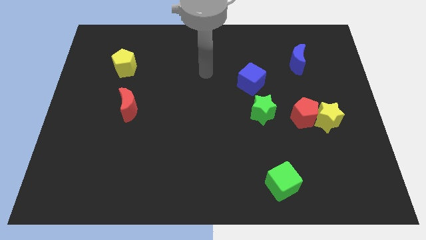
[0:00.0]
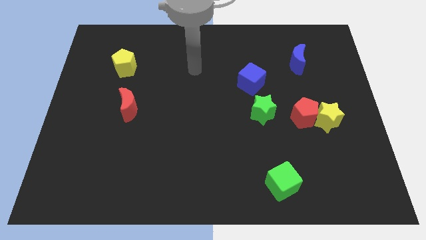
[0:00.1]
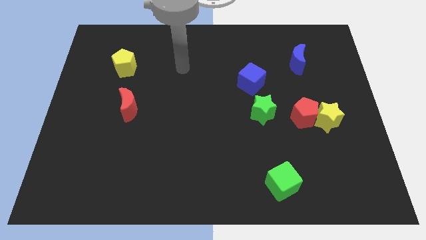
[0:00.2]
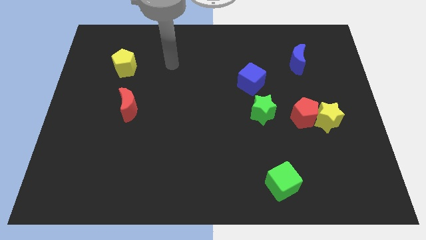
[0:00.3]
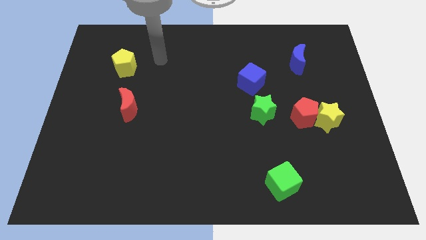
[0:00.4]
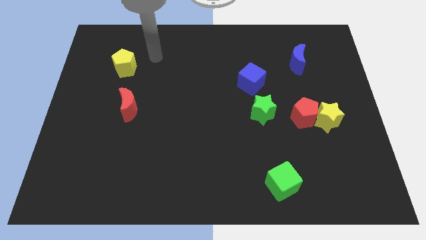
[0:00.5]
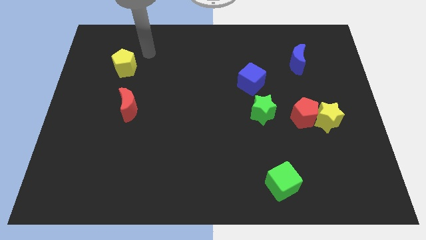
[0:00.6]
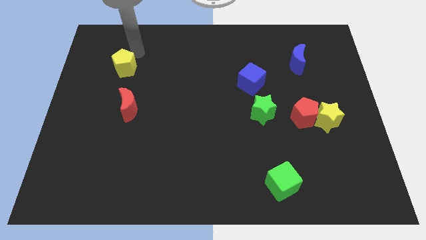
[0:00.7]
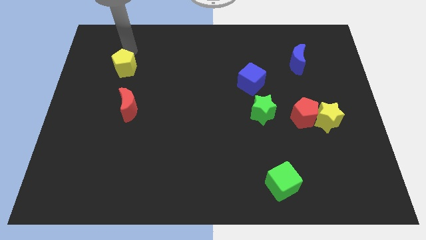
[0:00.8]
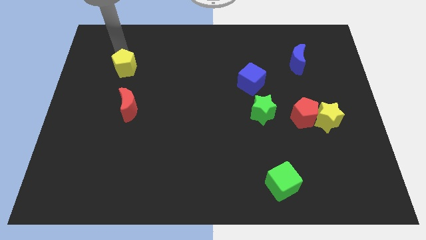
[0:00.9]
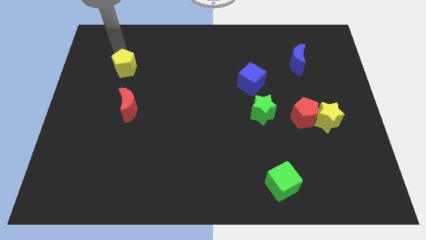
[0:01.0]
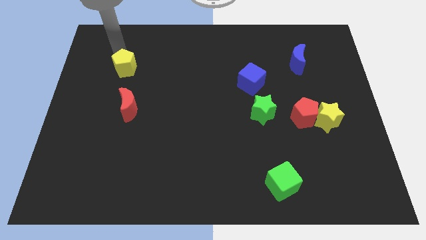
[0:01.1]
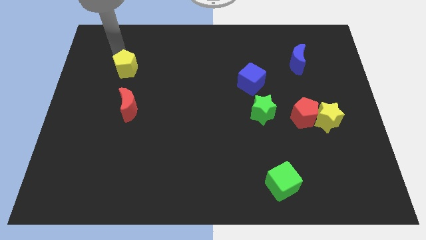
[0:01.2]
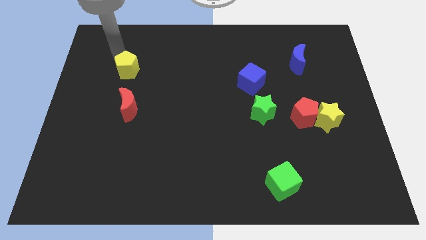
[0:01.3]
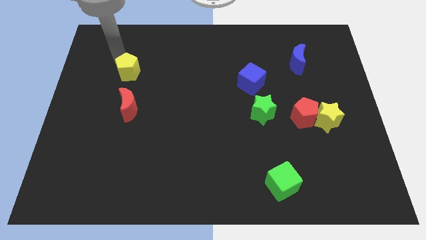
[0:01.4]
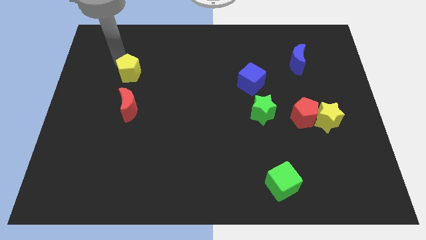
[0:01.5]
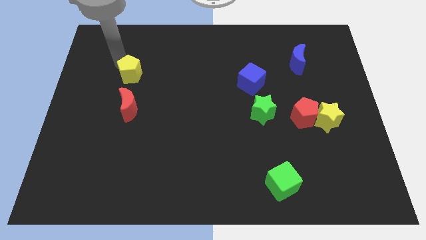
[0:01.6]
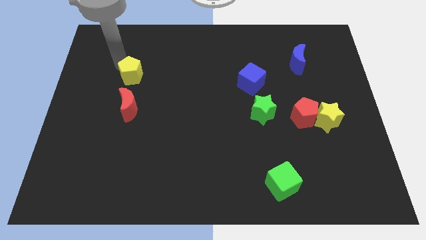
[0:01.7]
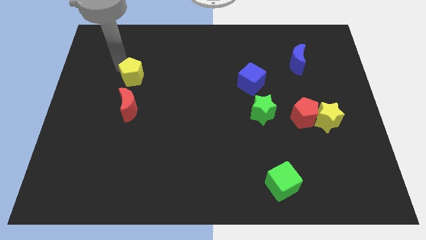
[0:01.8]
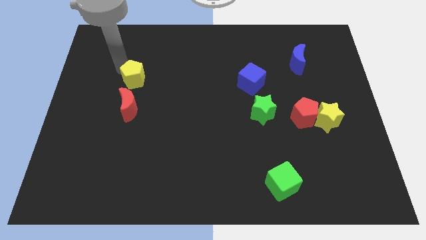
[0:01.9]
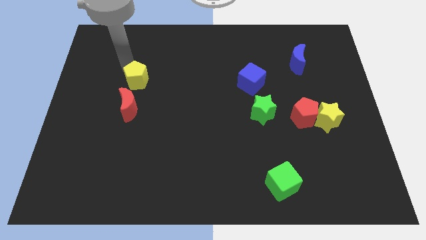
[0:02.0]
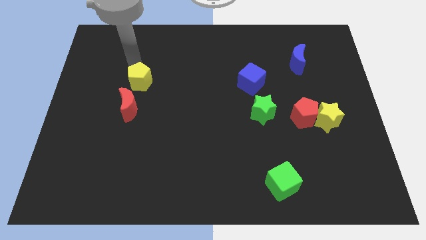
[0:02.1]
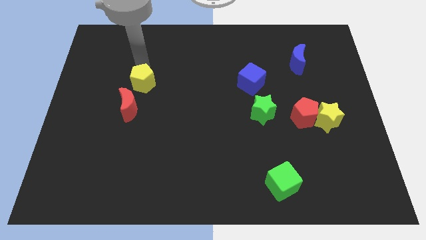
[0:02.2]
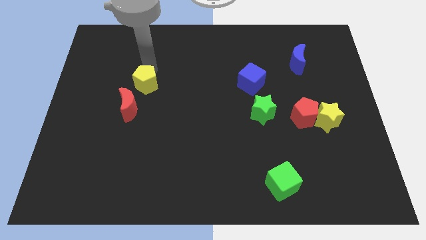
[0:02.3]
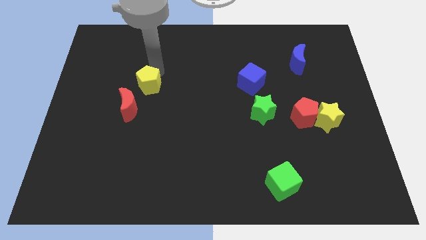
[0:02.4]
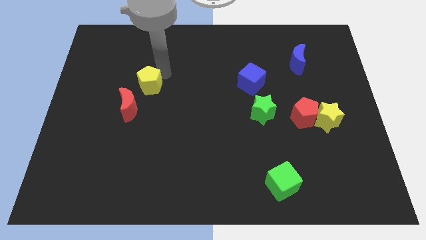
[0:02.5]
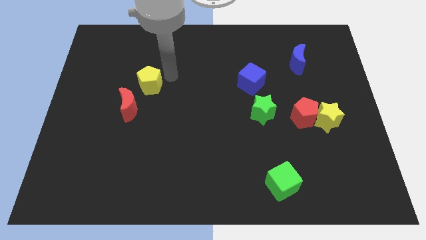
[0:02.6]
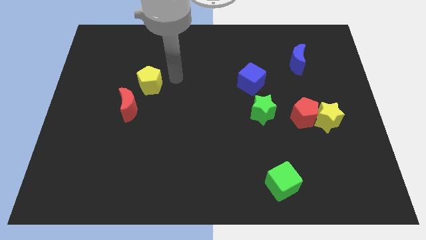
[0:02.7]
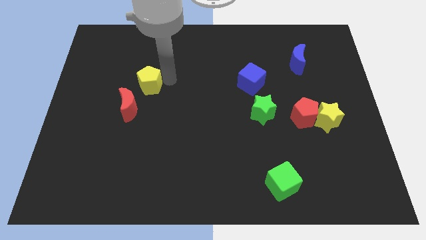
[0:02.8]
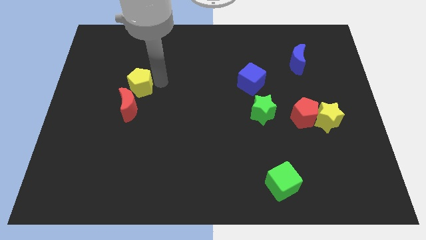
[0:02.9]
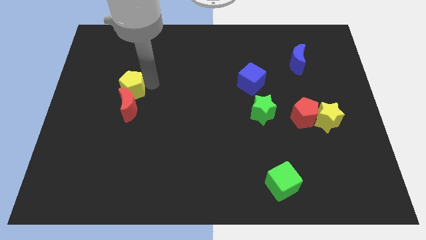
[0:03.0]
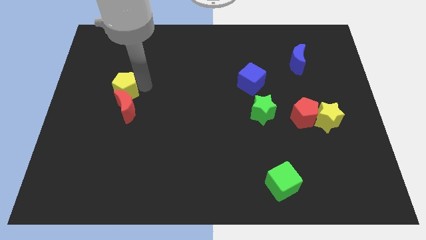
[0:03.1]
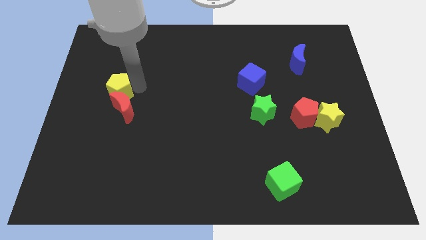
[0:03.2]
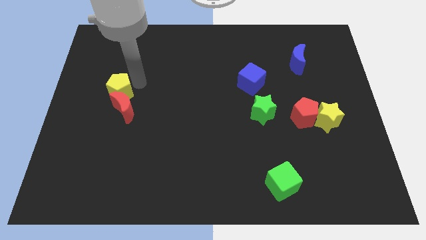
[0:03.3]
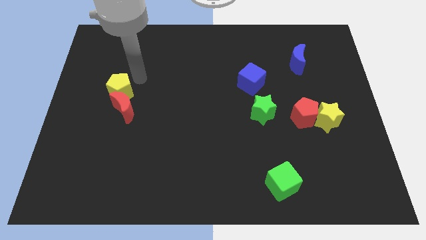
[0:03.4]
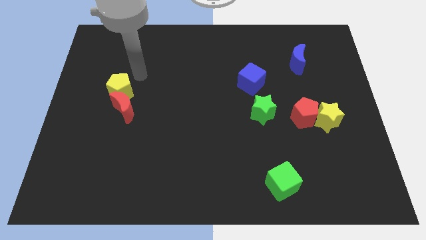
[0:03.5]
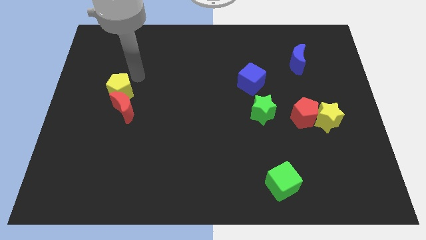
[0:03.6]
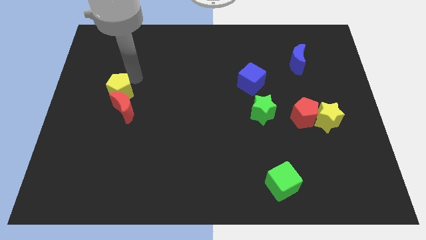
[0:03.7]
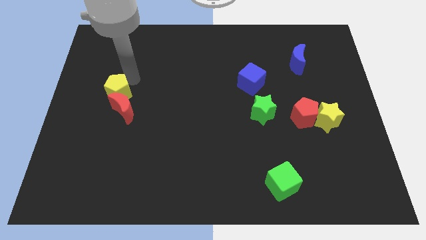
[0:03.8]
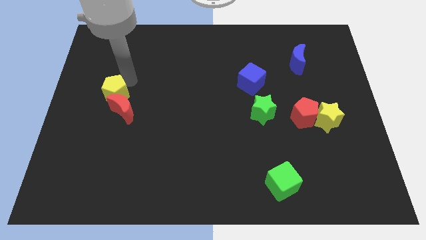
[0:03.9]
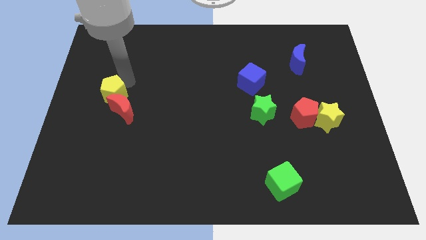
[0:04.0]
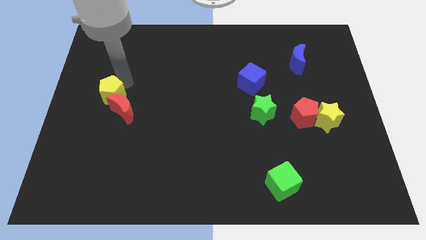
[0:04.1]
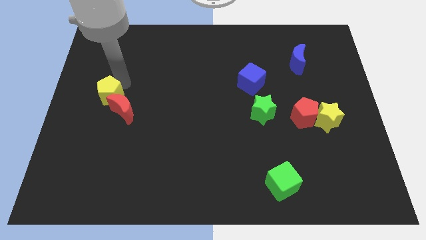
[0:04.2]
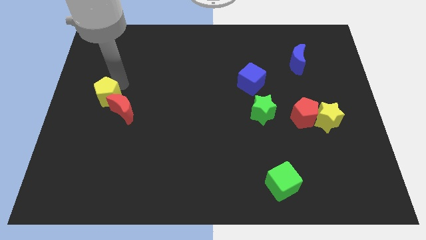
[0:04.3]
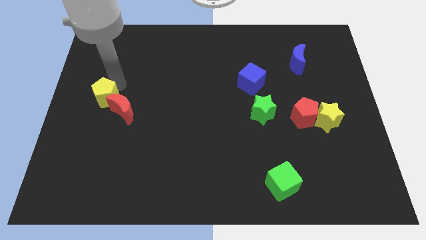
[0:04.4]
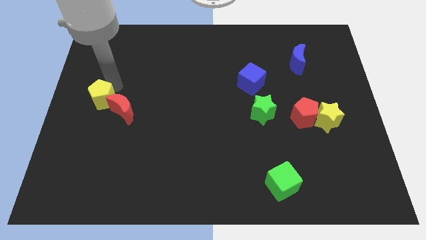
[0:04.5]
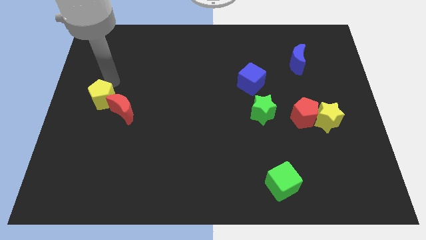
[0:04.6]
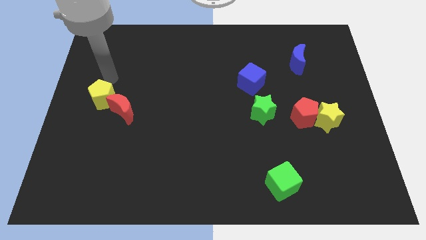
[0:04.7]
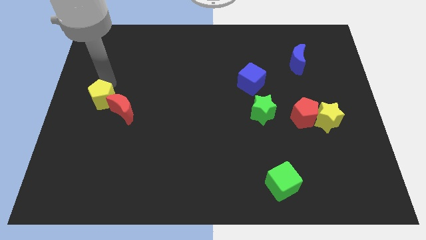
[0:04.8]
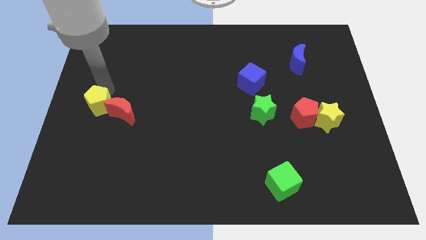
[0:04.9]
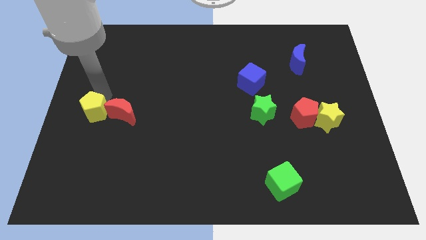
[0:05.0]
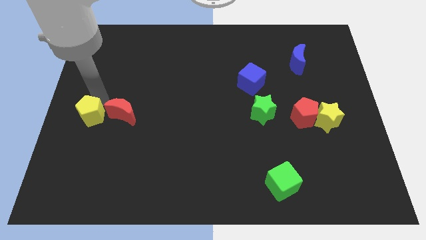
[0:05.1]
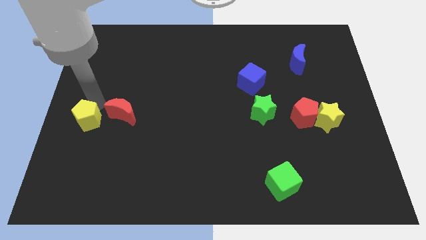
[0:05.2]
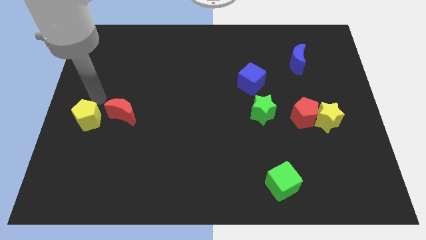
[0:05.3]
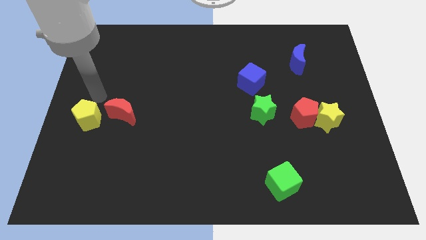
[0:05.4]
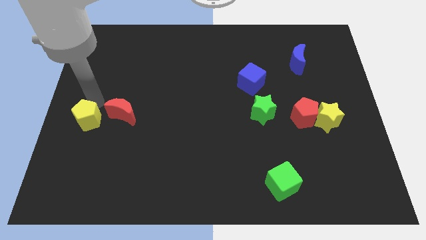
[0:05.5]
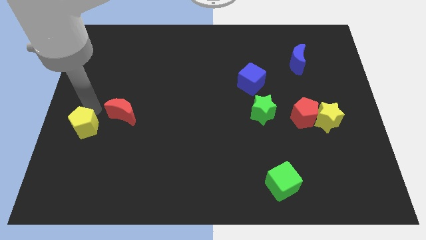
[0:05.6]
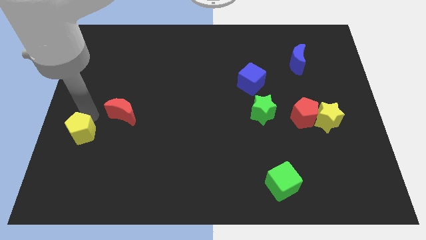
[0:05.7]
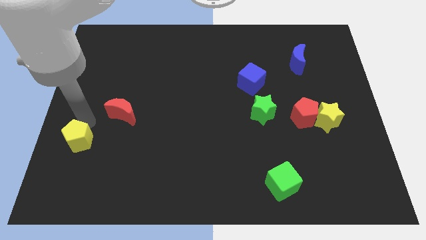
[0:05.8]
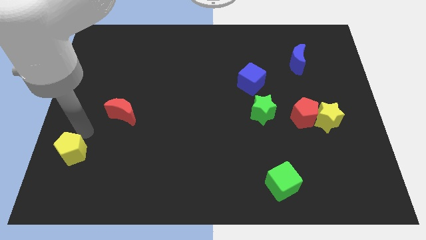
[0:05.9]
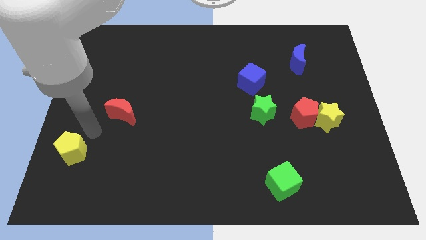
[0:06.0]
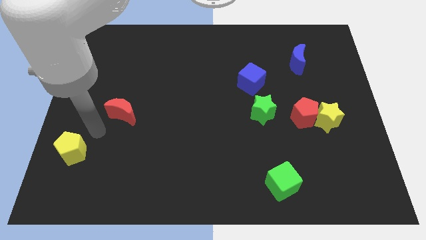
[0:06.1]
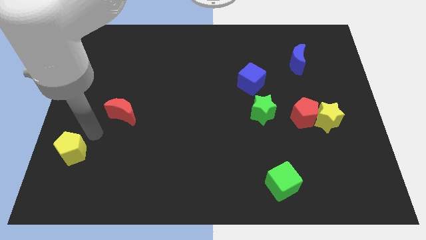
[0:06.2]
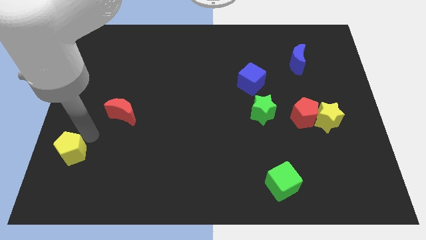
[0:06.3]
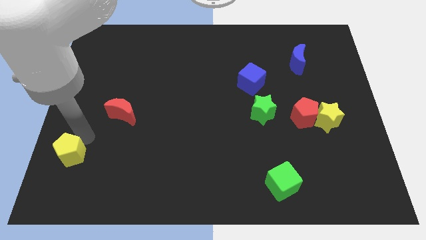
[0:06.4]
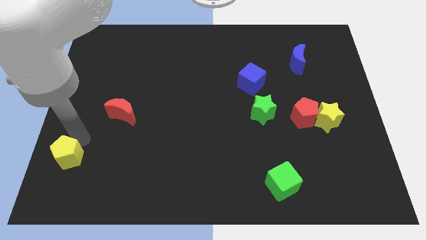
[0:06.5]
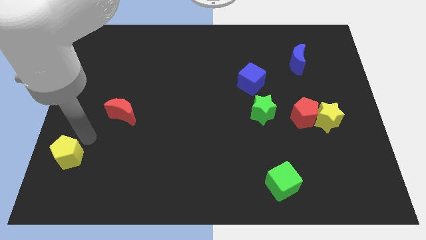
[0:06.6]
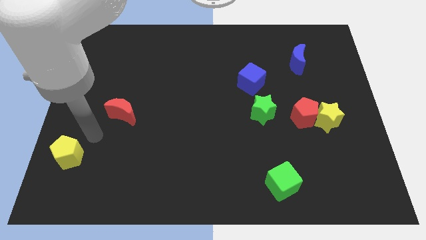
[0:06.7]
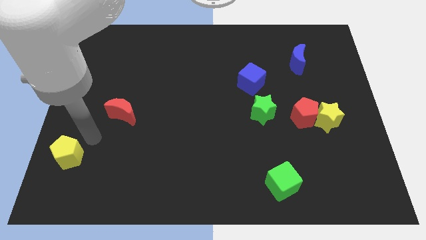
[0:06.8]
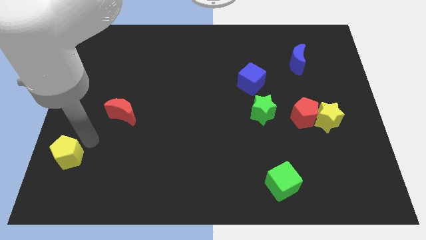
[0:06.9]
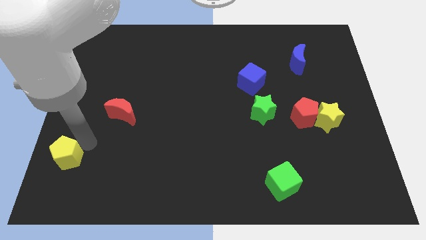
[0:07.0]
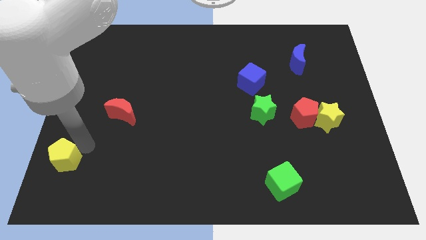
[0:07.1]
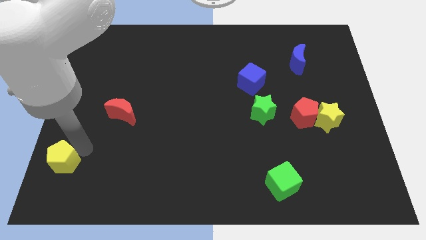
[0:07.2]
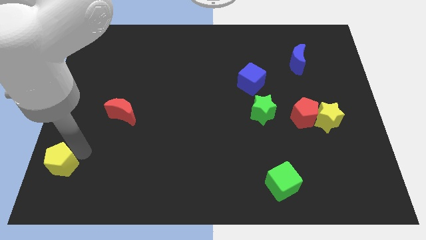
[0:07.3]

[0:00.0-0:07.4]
put the yellow pentagon to the lower left corner
